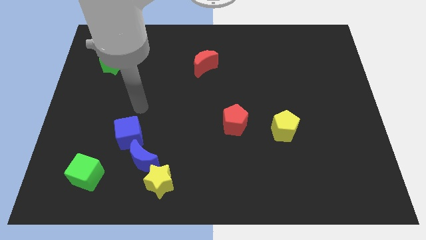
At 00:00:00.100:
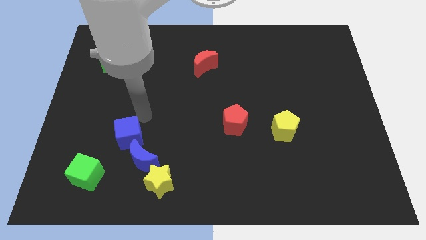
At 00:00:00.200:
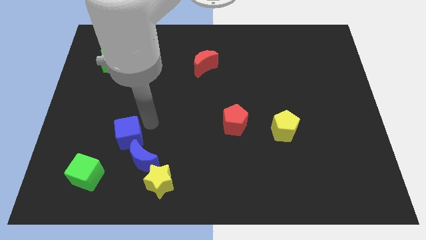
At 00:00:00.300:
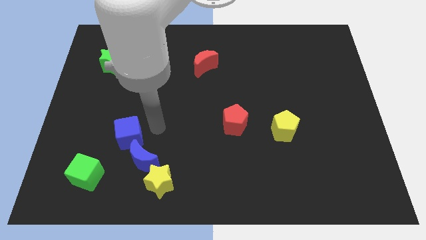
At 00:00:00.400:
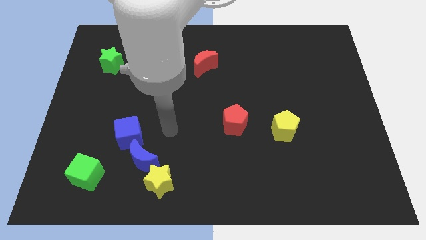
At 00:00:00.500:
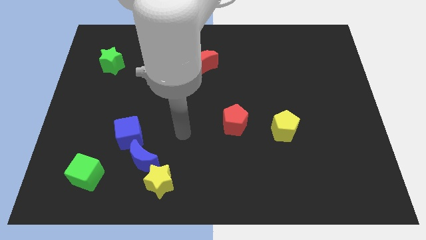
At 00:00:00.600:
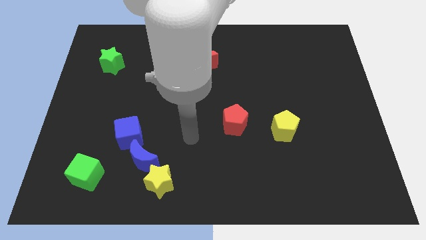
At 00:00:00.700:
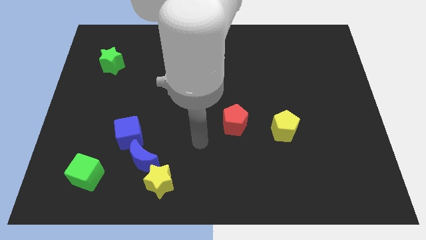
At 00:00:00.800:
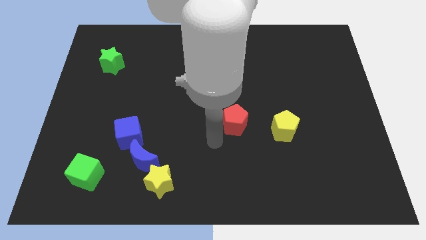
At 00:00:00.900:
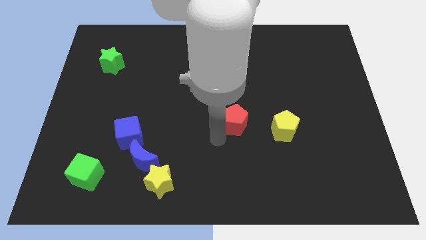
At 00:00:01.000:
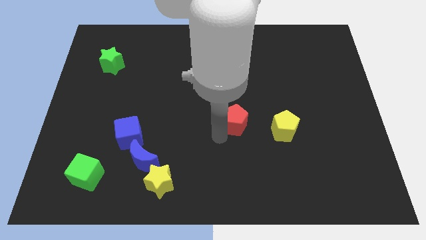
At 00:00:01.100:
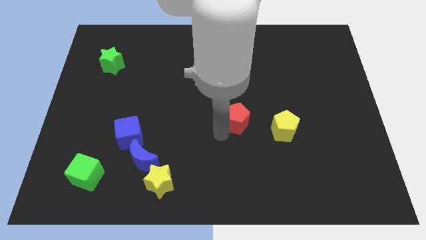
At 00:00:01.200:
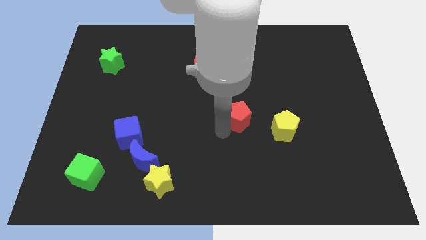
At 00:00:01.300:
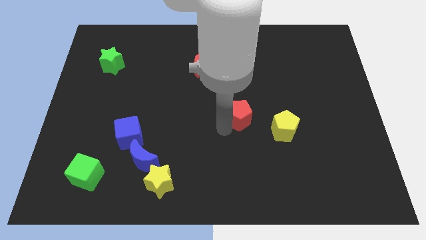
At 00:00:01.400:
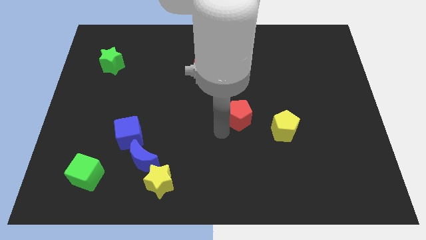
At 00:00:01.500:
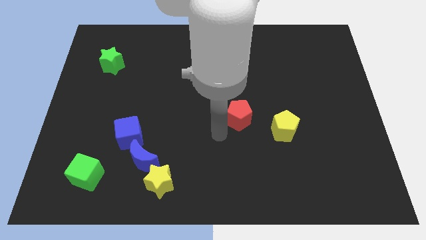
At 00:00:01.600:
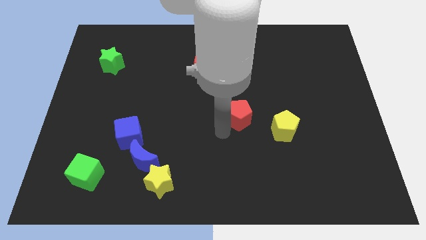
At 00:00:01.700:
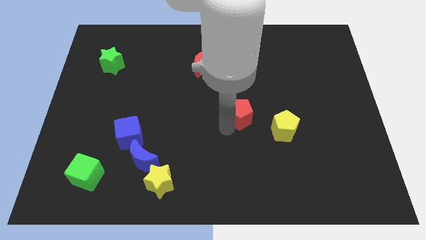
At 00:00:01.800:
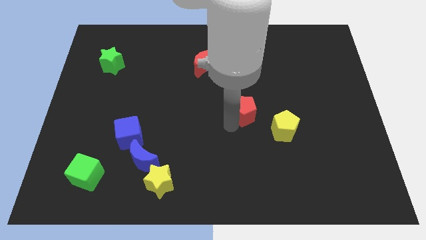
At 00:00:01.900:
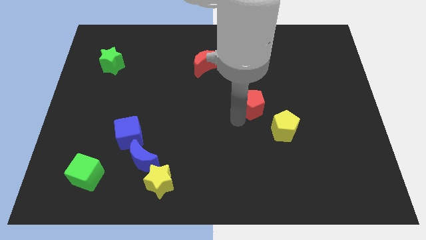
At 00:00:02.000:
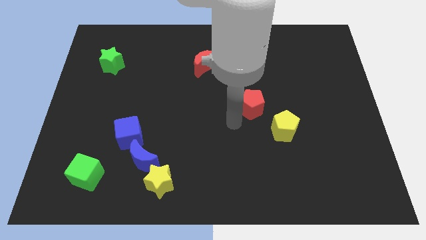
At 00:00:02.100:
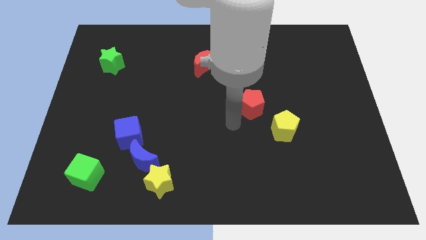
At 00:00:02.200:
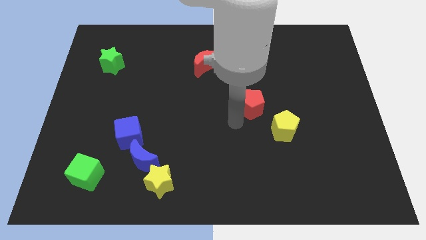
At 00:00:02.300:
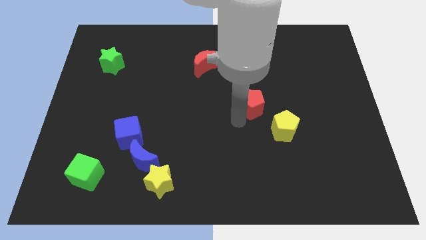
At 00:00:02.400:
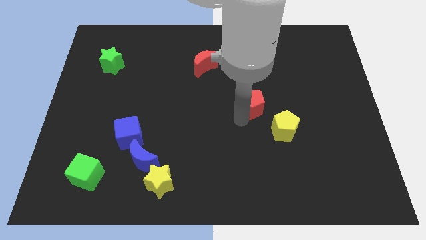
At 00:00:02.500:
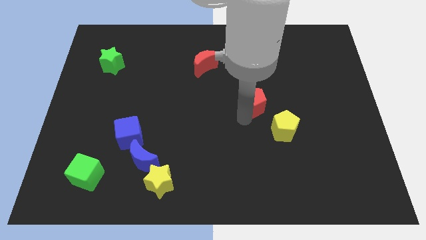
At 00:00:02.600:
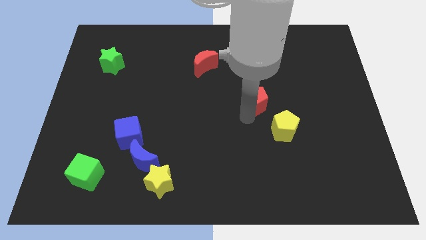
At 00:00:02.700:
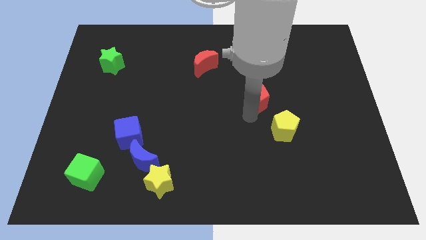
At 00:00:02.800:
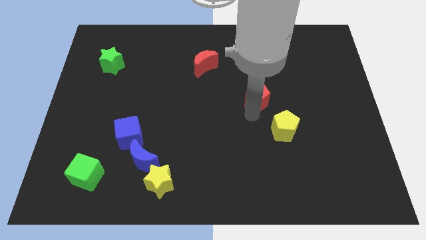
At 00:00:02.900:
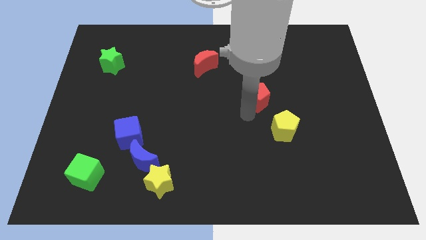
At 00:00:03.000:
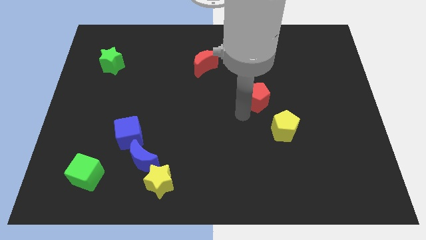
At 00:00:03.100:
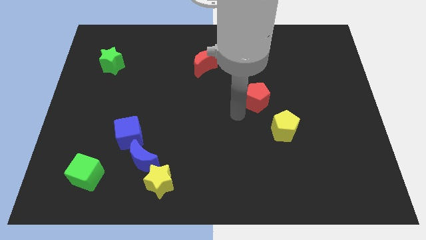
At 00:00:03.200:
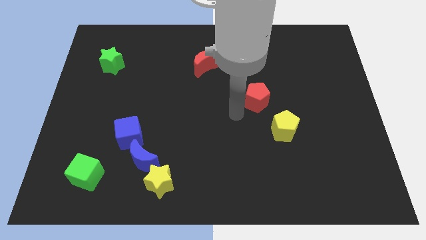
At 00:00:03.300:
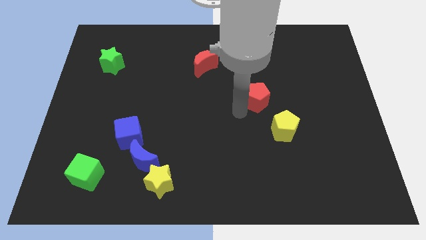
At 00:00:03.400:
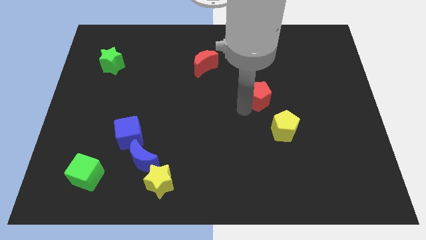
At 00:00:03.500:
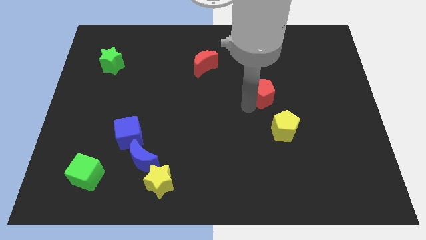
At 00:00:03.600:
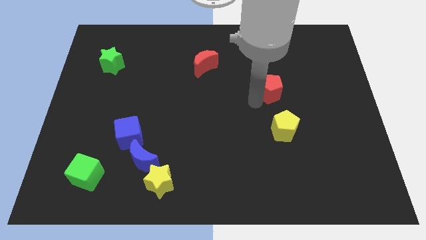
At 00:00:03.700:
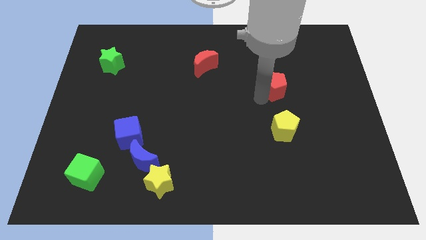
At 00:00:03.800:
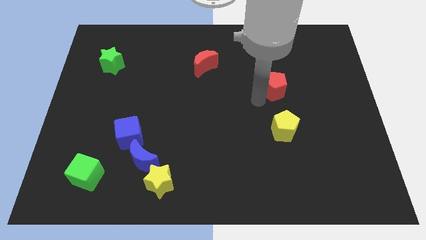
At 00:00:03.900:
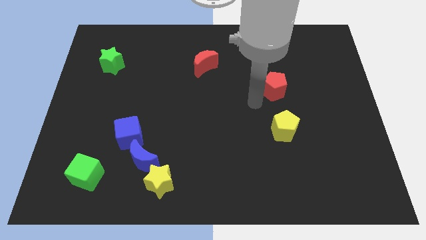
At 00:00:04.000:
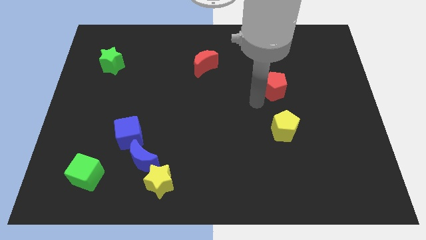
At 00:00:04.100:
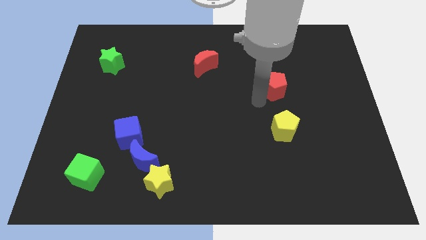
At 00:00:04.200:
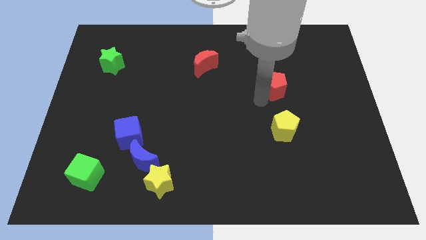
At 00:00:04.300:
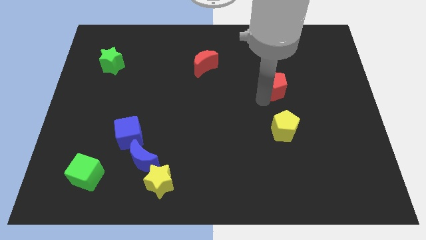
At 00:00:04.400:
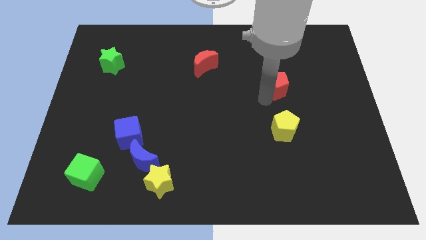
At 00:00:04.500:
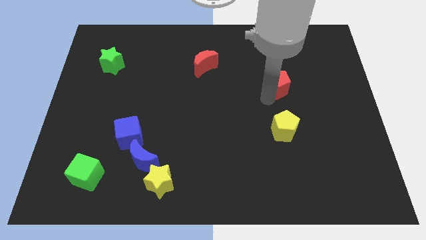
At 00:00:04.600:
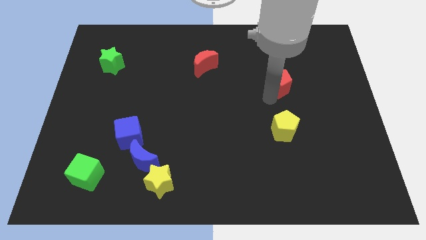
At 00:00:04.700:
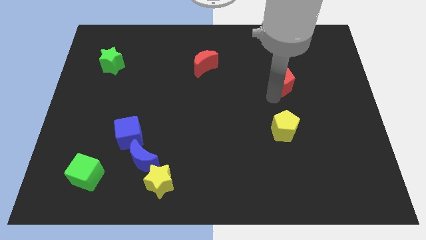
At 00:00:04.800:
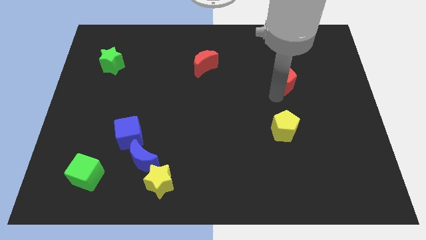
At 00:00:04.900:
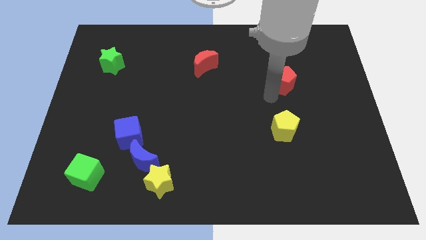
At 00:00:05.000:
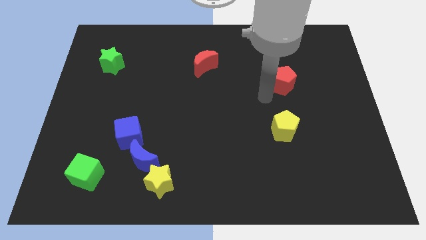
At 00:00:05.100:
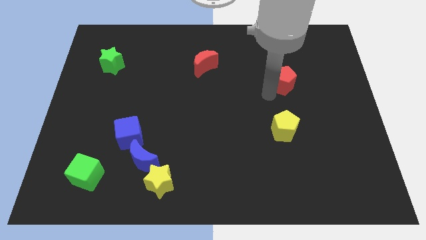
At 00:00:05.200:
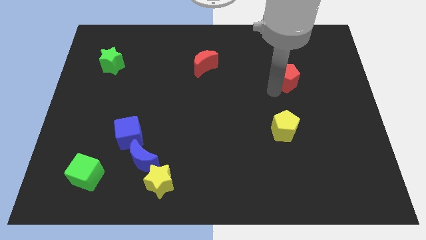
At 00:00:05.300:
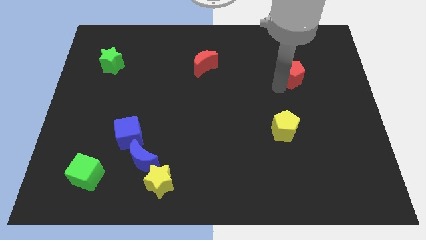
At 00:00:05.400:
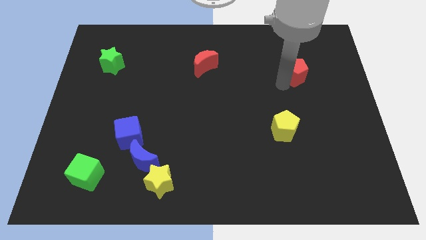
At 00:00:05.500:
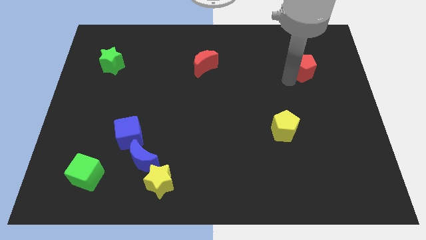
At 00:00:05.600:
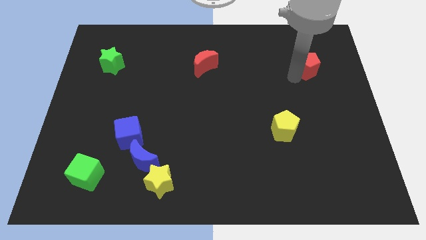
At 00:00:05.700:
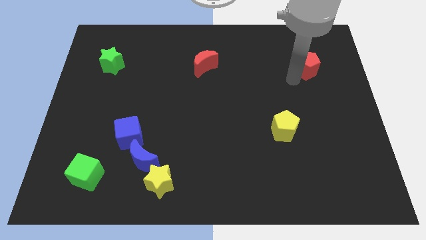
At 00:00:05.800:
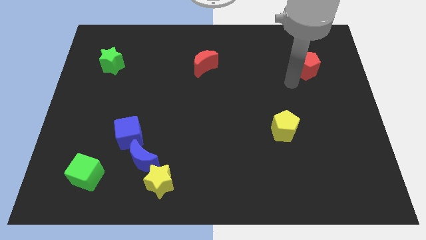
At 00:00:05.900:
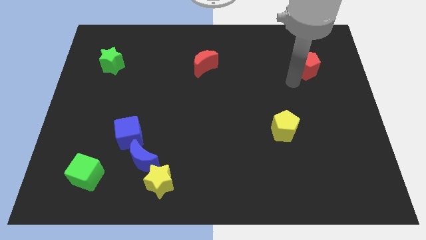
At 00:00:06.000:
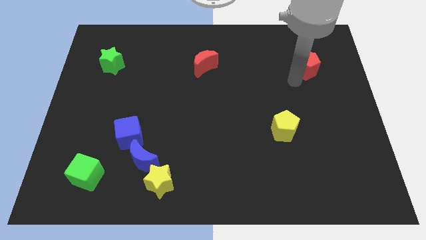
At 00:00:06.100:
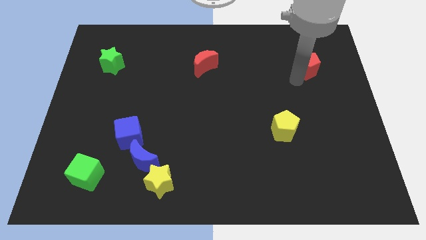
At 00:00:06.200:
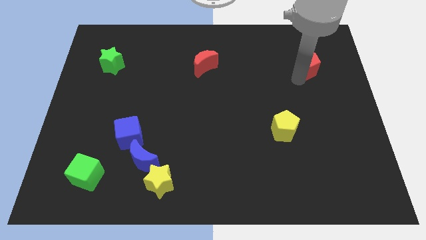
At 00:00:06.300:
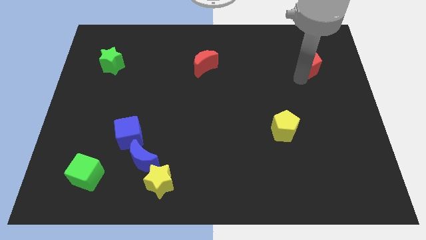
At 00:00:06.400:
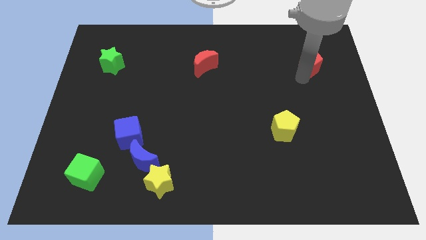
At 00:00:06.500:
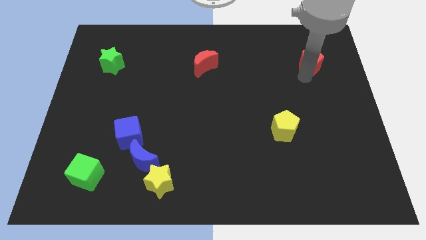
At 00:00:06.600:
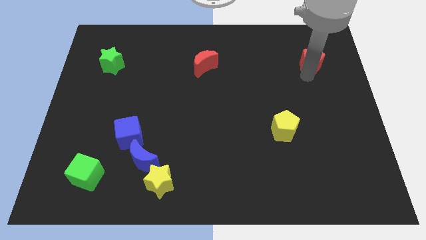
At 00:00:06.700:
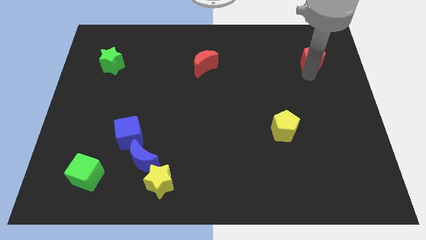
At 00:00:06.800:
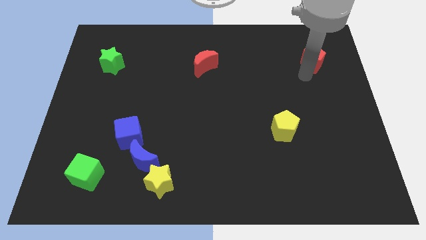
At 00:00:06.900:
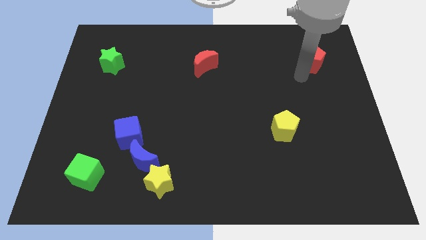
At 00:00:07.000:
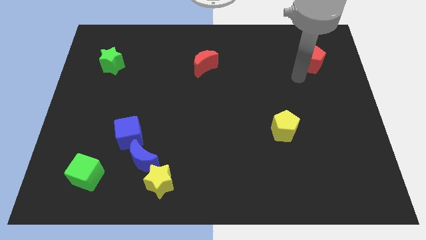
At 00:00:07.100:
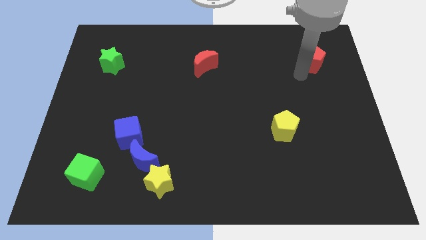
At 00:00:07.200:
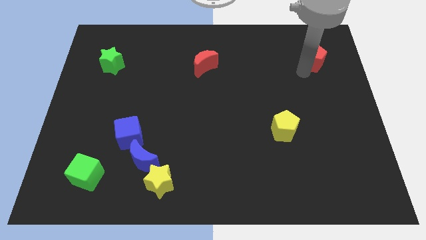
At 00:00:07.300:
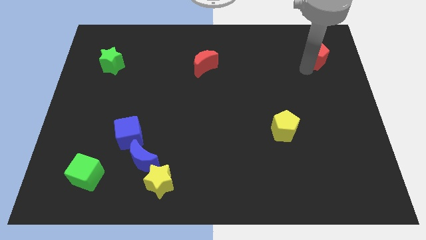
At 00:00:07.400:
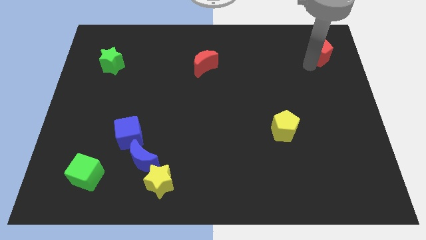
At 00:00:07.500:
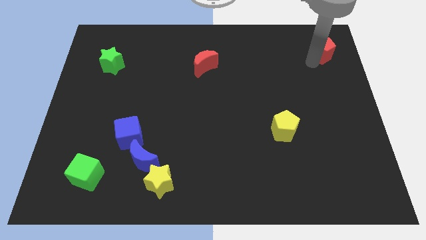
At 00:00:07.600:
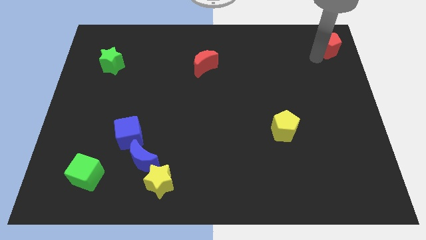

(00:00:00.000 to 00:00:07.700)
push the red pentagon to the upper right corner
